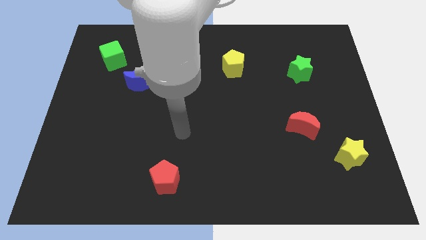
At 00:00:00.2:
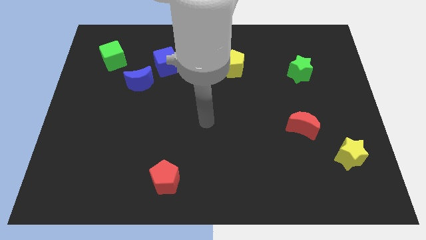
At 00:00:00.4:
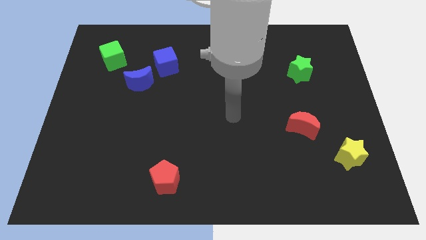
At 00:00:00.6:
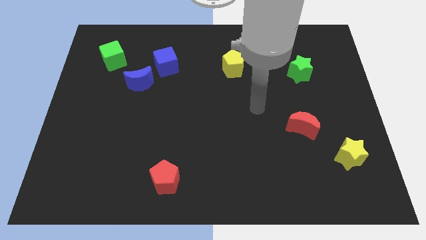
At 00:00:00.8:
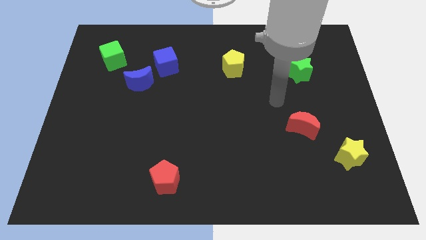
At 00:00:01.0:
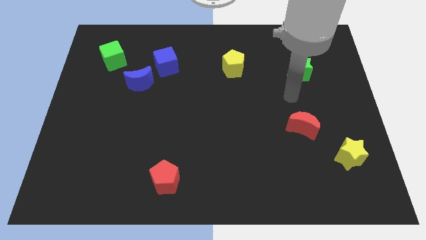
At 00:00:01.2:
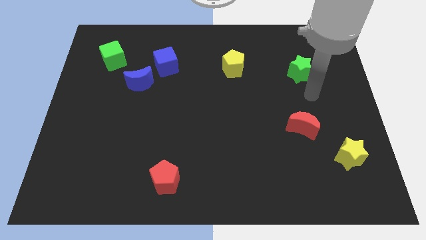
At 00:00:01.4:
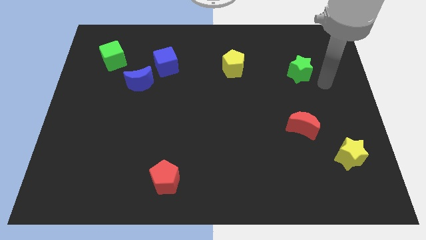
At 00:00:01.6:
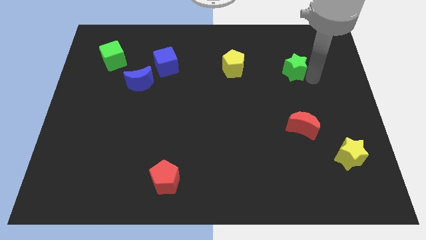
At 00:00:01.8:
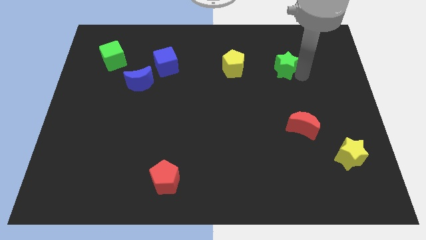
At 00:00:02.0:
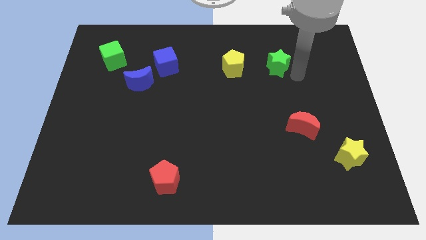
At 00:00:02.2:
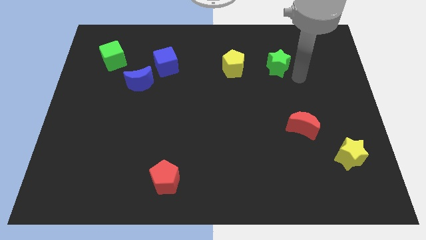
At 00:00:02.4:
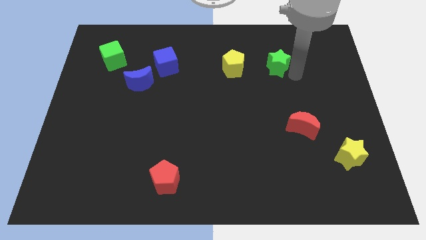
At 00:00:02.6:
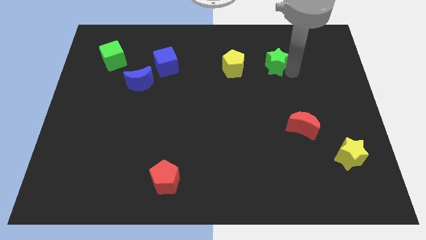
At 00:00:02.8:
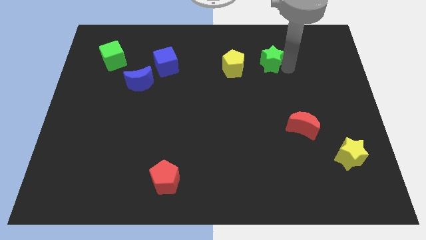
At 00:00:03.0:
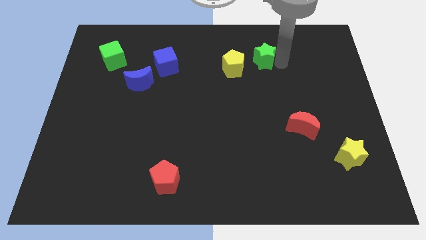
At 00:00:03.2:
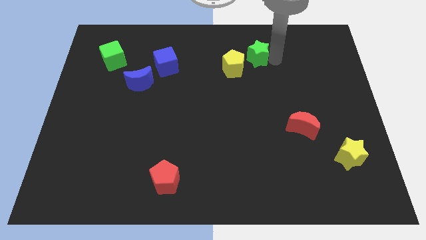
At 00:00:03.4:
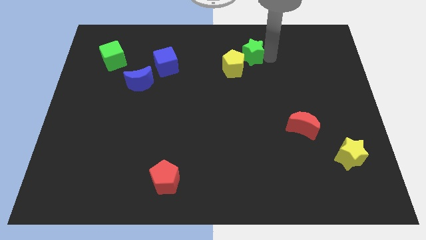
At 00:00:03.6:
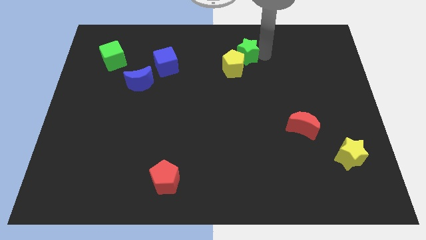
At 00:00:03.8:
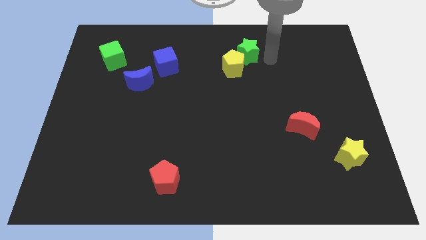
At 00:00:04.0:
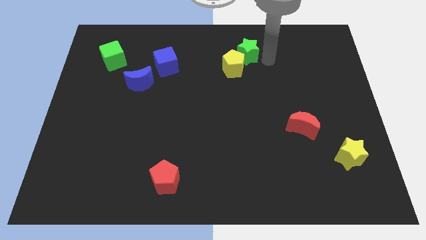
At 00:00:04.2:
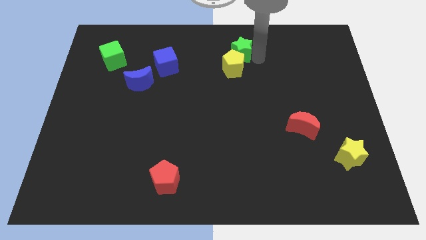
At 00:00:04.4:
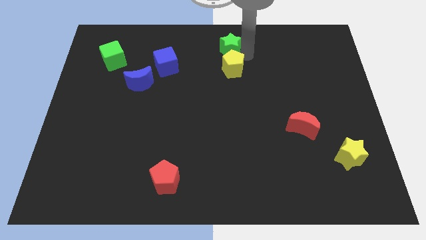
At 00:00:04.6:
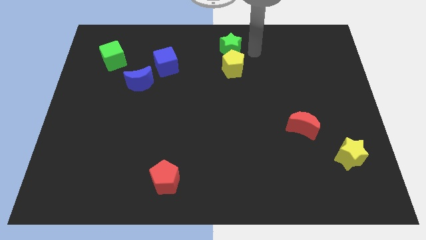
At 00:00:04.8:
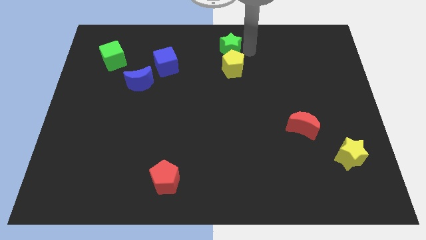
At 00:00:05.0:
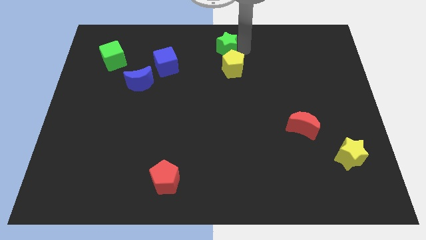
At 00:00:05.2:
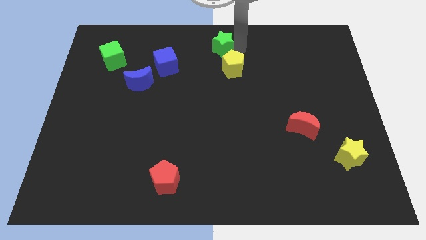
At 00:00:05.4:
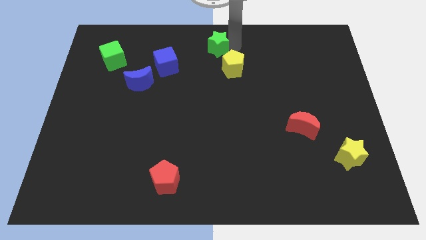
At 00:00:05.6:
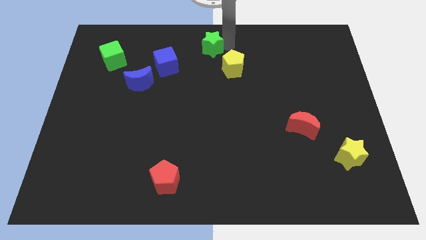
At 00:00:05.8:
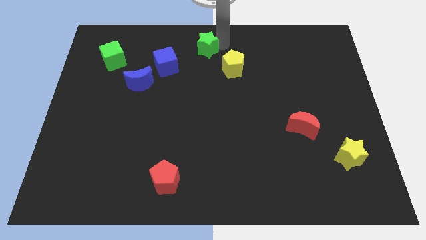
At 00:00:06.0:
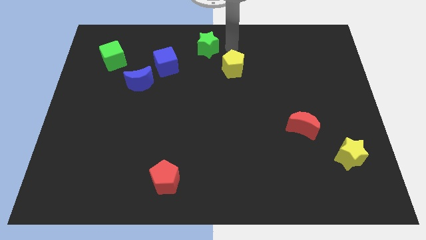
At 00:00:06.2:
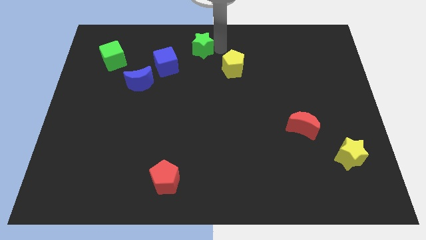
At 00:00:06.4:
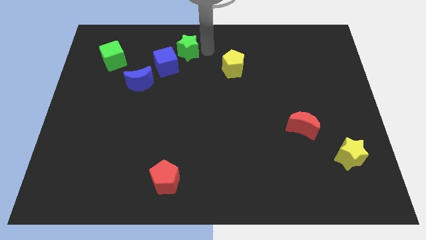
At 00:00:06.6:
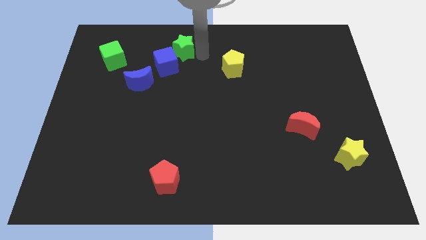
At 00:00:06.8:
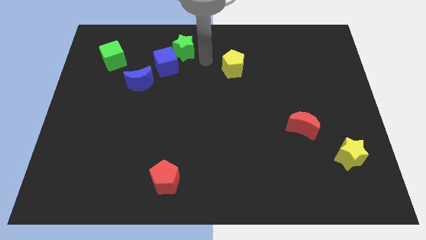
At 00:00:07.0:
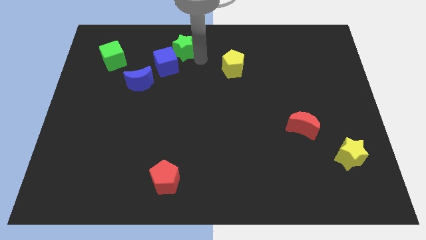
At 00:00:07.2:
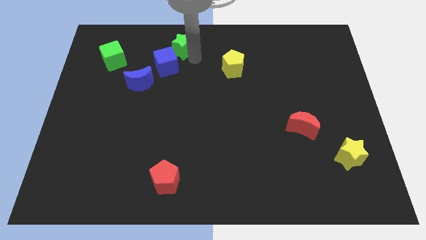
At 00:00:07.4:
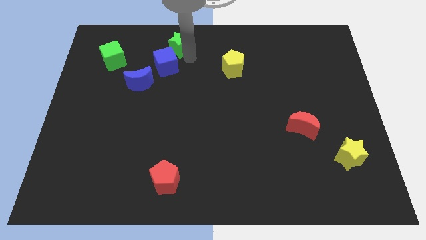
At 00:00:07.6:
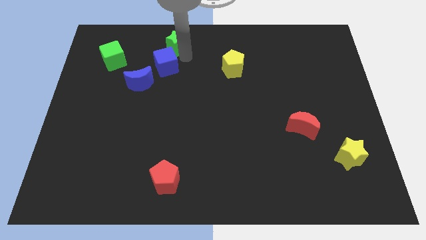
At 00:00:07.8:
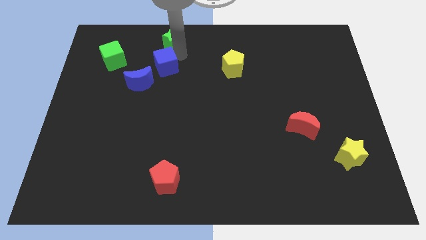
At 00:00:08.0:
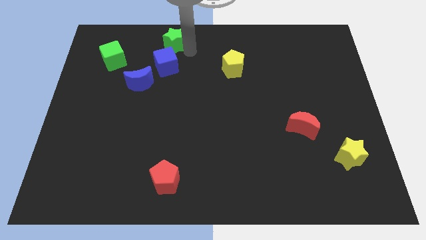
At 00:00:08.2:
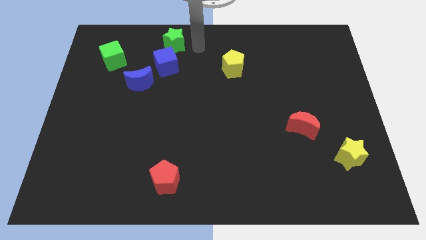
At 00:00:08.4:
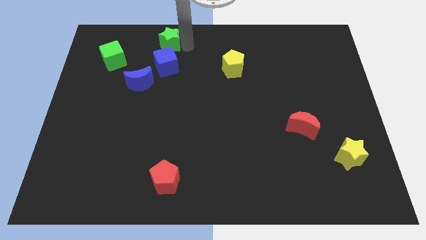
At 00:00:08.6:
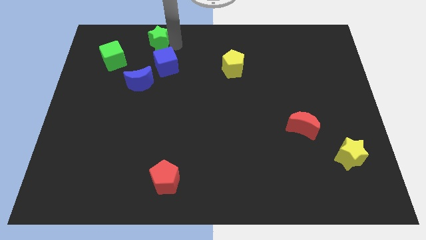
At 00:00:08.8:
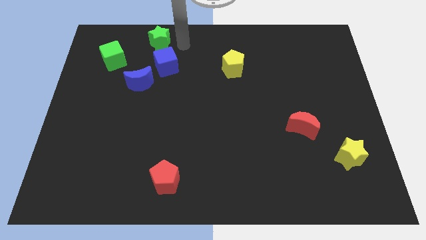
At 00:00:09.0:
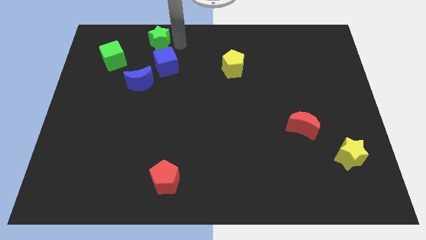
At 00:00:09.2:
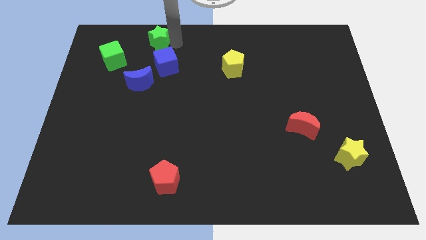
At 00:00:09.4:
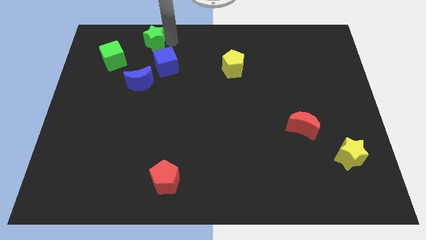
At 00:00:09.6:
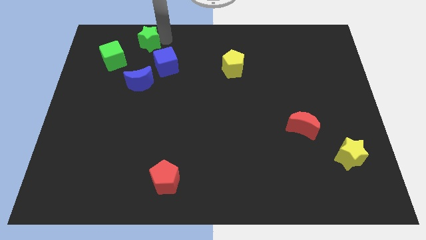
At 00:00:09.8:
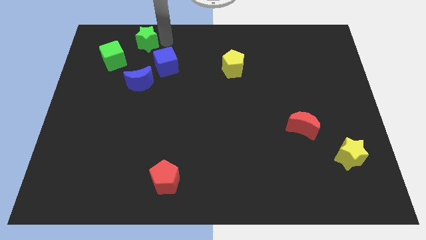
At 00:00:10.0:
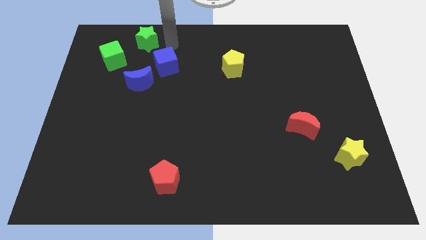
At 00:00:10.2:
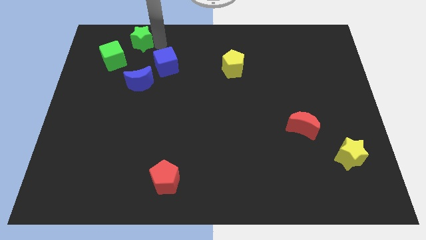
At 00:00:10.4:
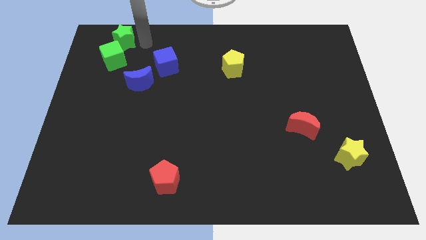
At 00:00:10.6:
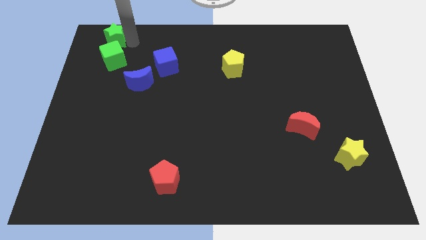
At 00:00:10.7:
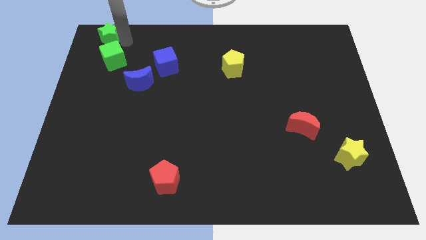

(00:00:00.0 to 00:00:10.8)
put the green star to the top left

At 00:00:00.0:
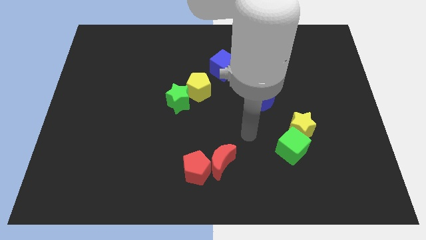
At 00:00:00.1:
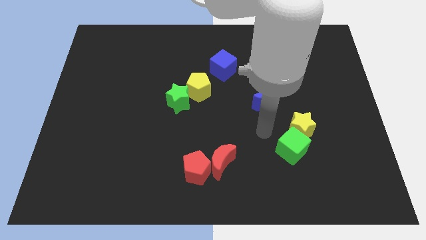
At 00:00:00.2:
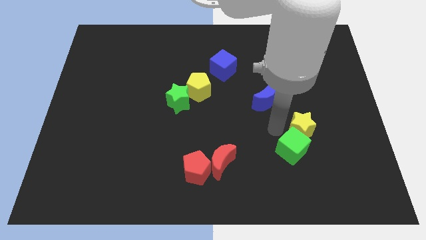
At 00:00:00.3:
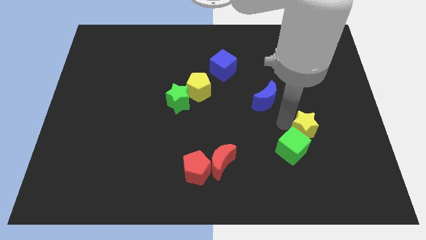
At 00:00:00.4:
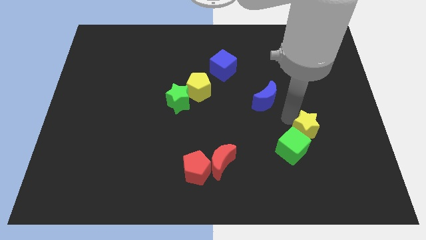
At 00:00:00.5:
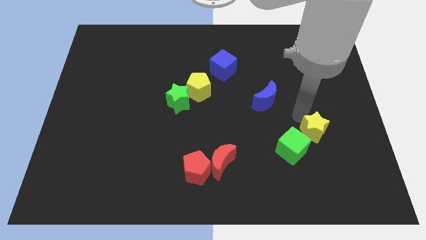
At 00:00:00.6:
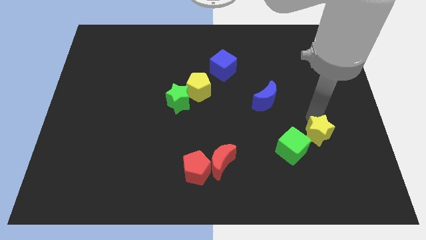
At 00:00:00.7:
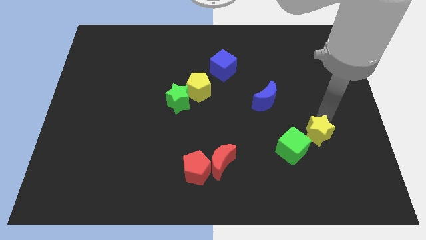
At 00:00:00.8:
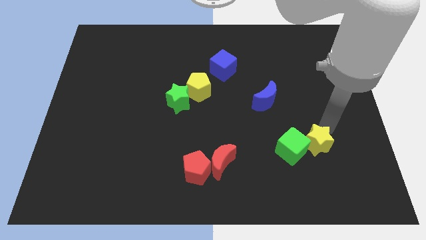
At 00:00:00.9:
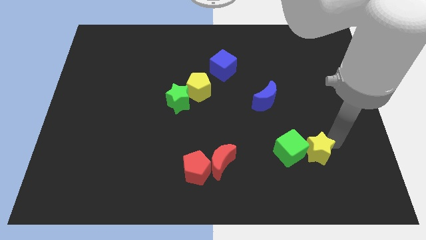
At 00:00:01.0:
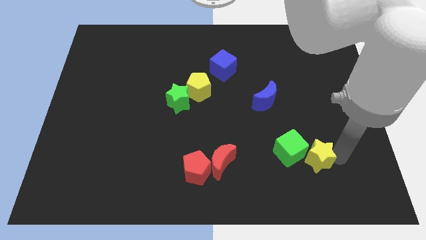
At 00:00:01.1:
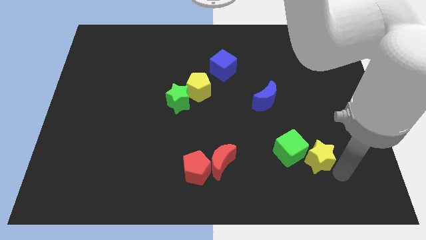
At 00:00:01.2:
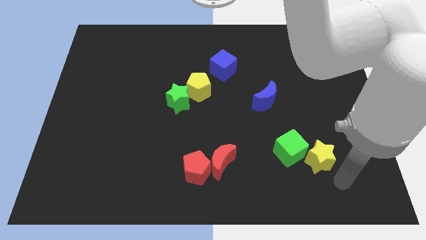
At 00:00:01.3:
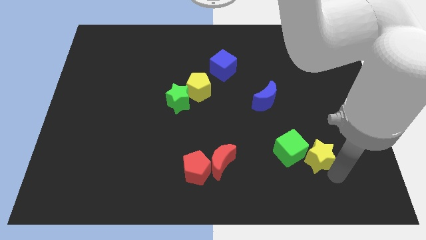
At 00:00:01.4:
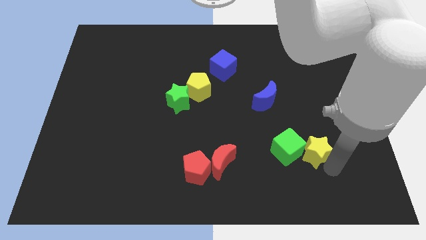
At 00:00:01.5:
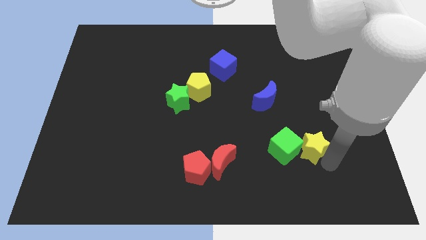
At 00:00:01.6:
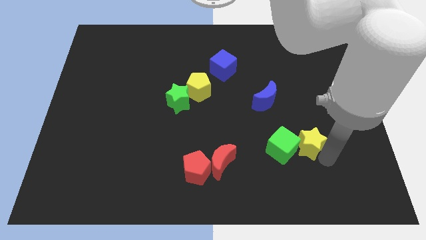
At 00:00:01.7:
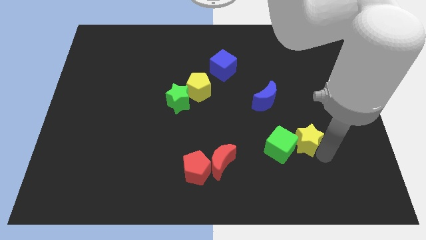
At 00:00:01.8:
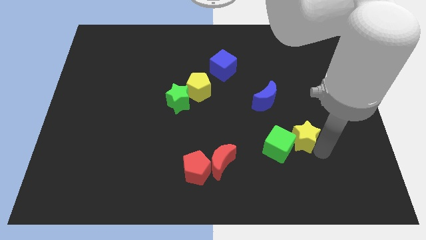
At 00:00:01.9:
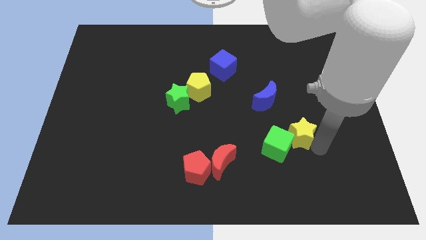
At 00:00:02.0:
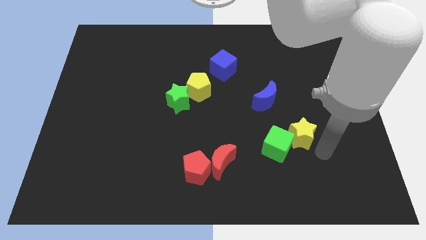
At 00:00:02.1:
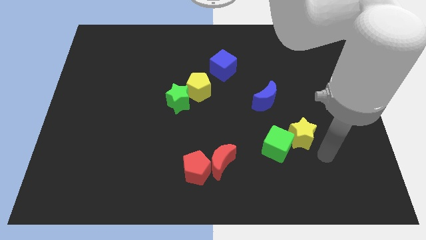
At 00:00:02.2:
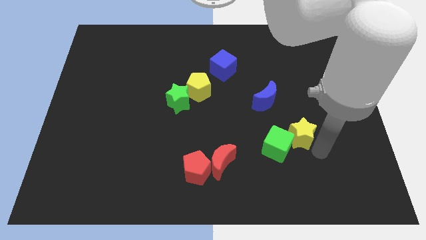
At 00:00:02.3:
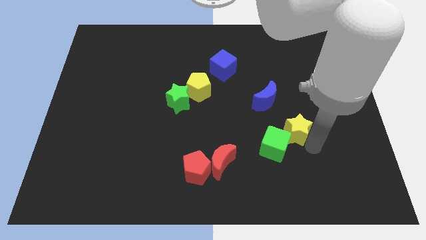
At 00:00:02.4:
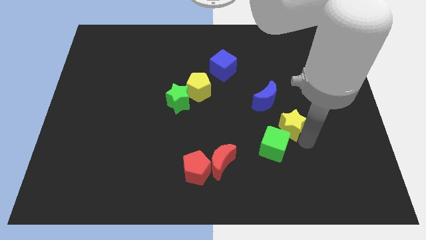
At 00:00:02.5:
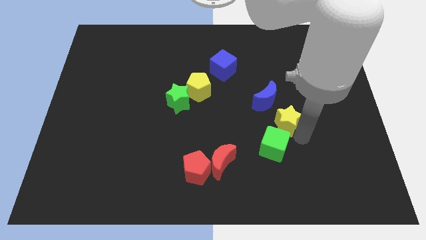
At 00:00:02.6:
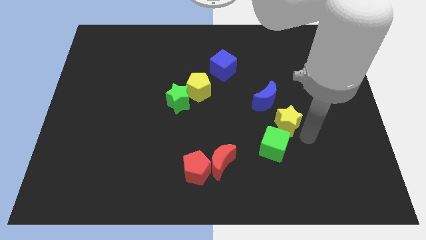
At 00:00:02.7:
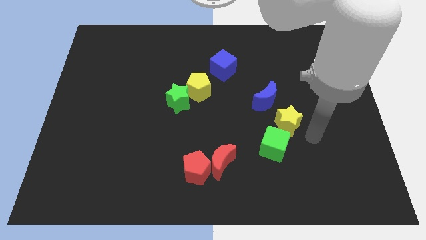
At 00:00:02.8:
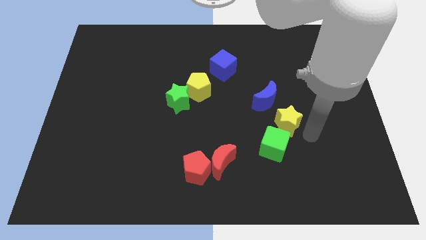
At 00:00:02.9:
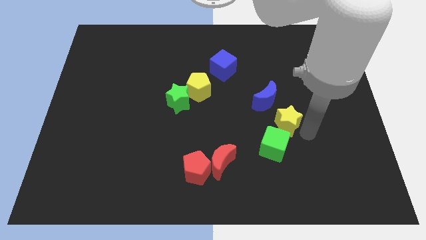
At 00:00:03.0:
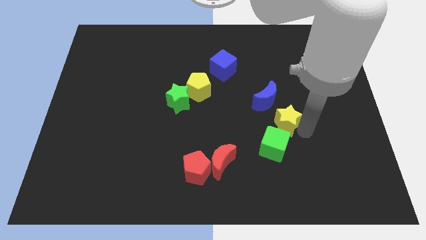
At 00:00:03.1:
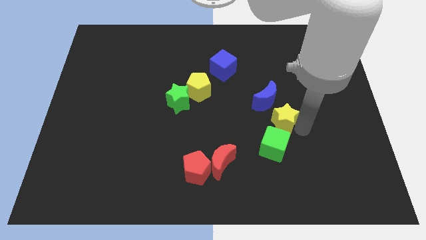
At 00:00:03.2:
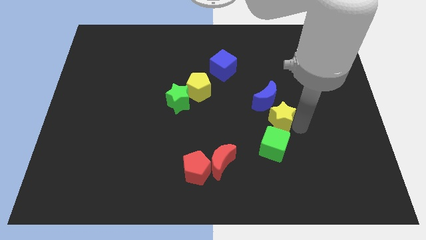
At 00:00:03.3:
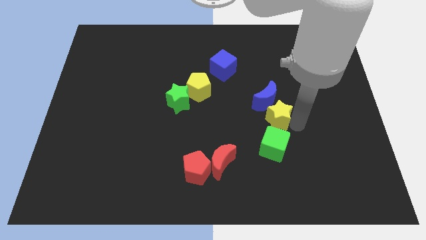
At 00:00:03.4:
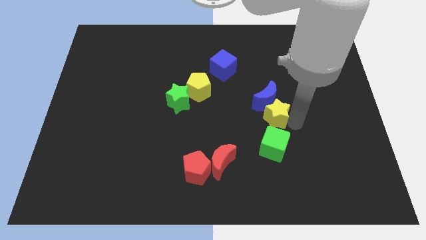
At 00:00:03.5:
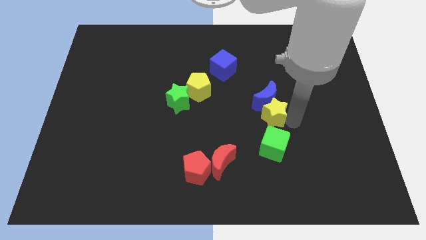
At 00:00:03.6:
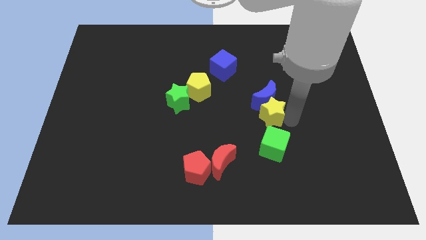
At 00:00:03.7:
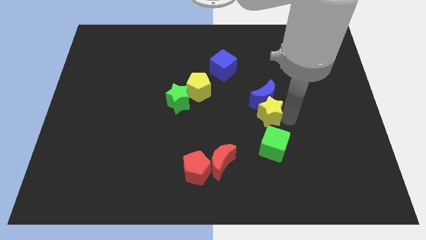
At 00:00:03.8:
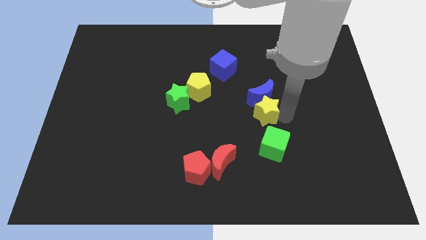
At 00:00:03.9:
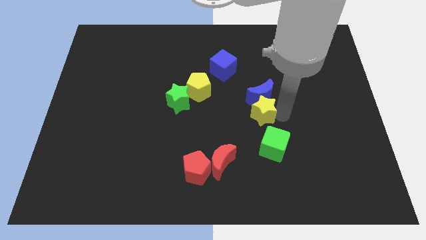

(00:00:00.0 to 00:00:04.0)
put the yellow star to the middle
